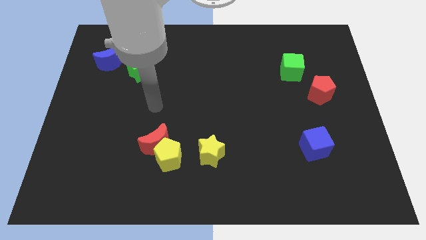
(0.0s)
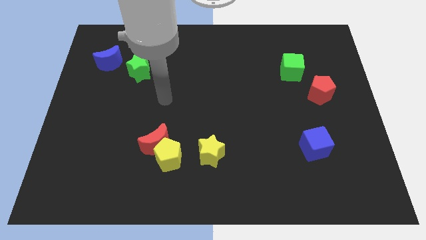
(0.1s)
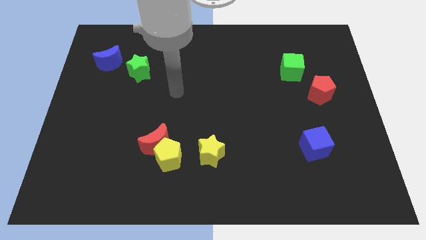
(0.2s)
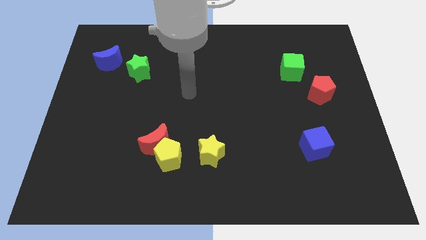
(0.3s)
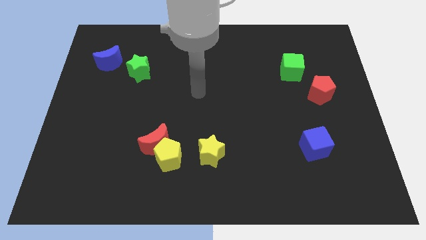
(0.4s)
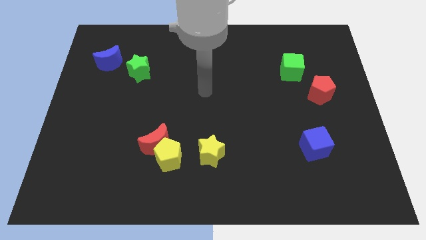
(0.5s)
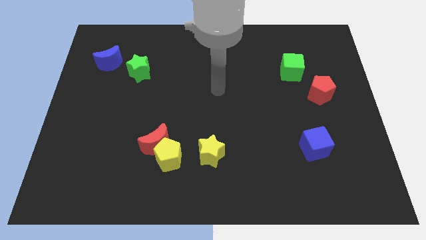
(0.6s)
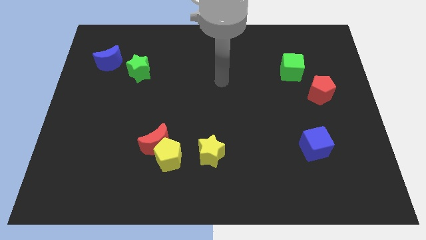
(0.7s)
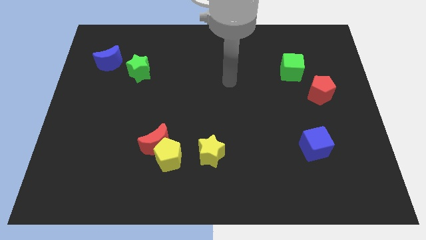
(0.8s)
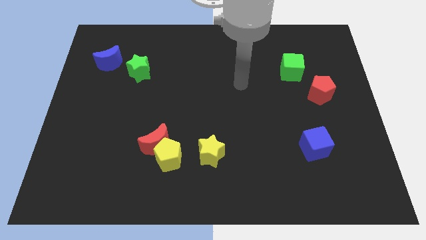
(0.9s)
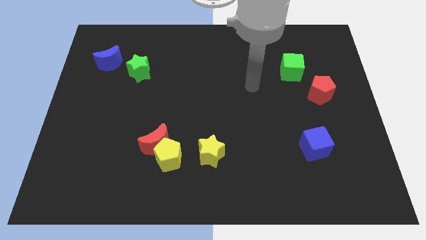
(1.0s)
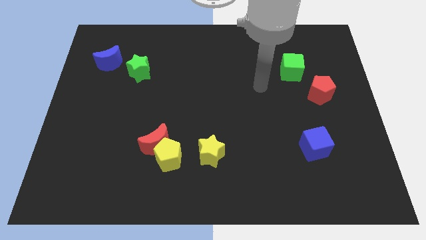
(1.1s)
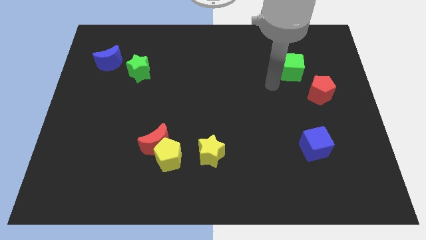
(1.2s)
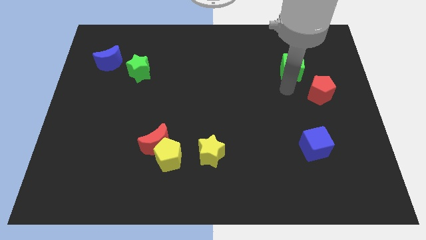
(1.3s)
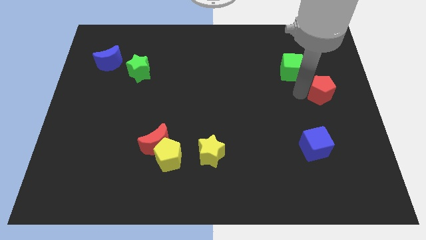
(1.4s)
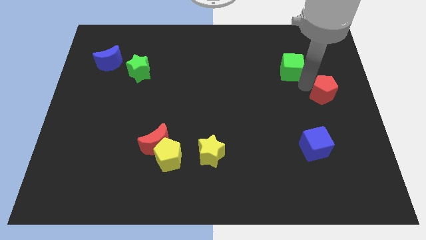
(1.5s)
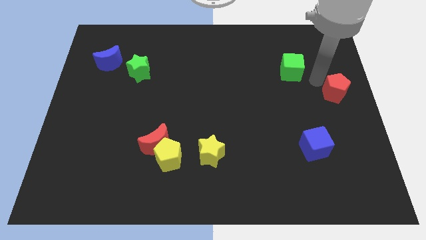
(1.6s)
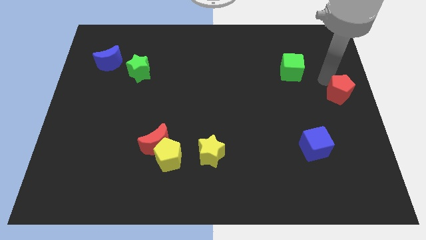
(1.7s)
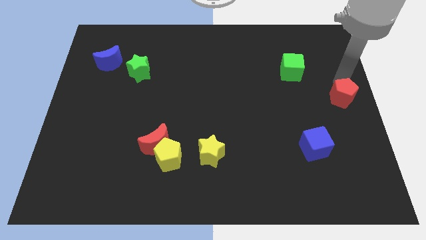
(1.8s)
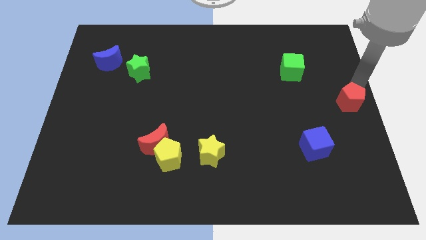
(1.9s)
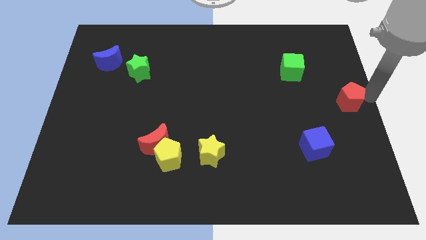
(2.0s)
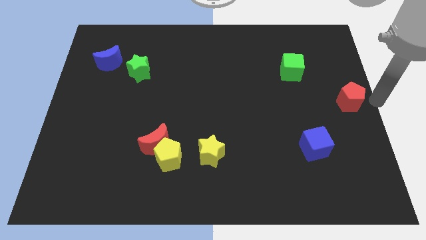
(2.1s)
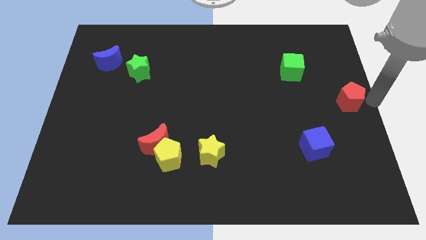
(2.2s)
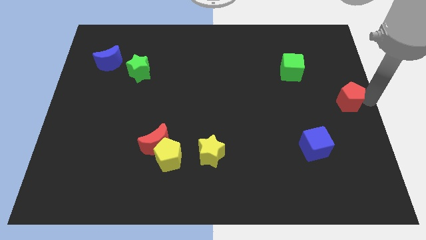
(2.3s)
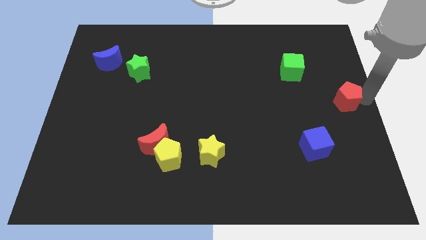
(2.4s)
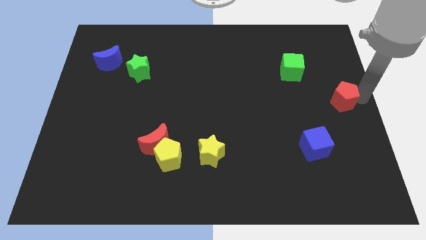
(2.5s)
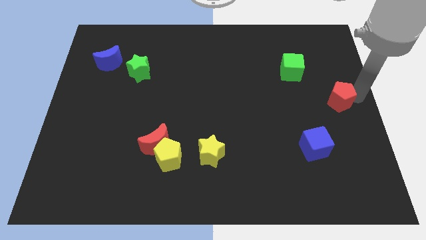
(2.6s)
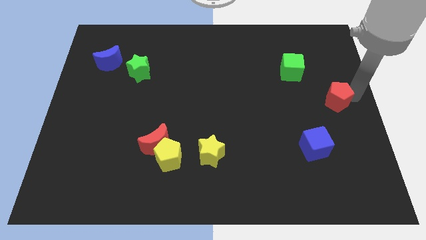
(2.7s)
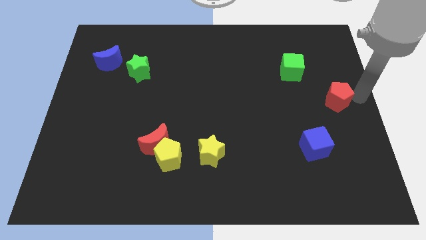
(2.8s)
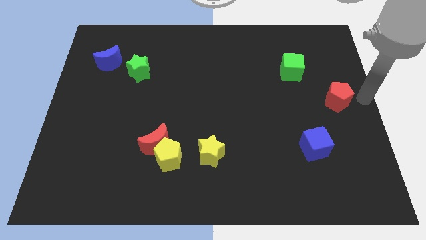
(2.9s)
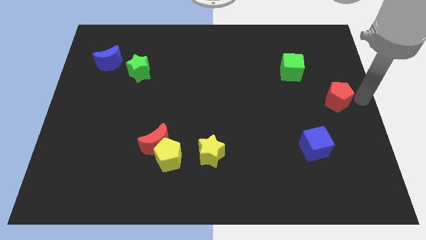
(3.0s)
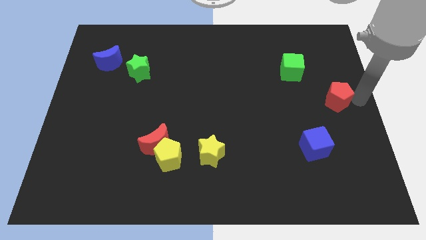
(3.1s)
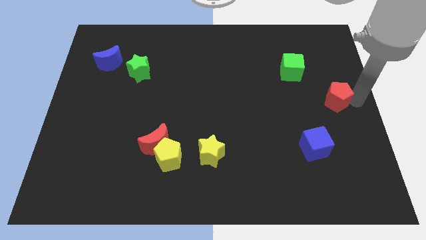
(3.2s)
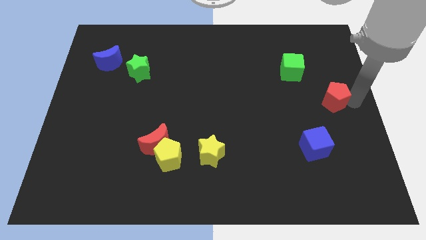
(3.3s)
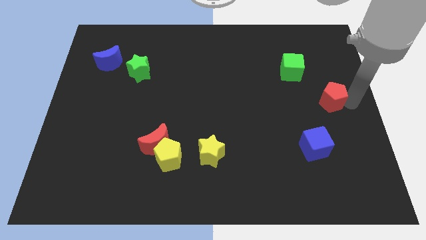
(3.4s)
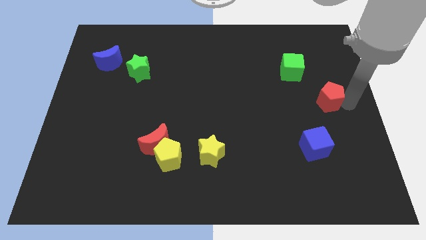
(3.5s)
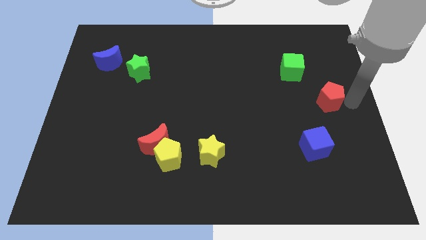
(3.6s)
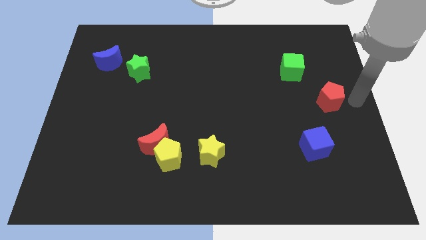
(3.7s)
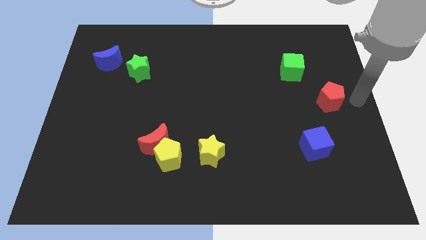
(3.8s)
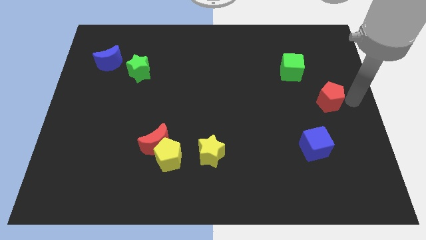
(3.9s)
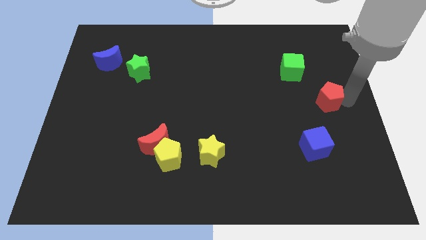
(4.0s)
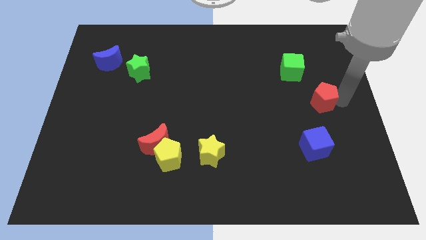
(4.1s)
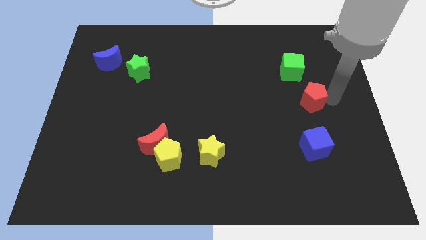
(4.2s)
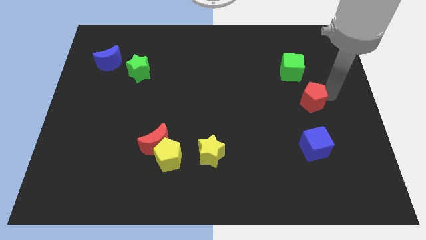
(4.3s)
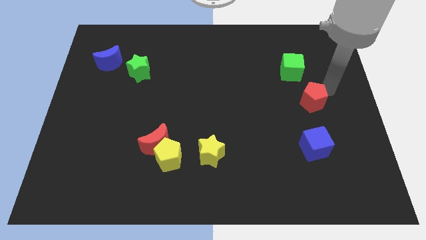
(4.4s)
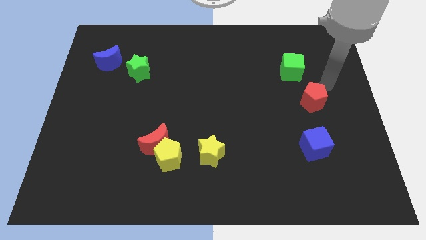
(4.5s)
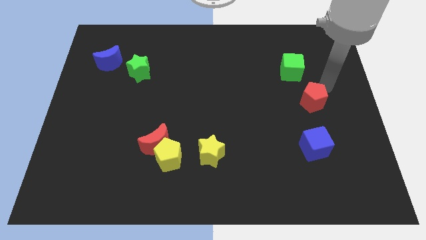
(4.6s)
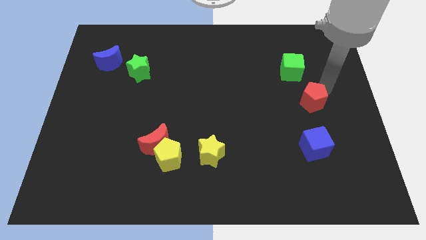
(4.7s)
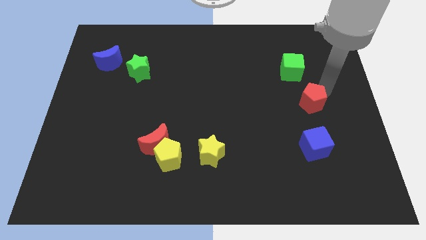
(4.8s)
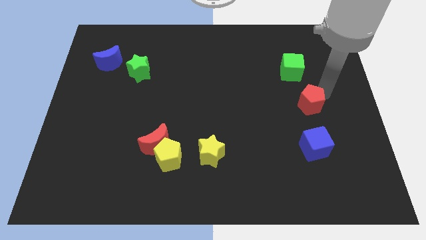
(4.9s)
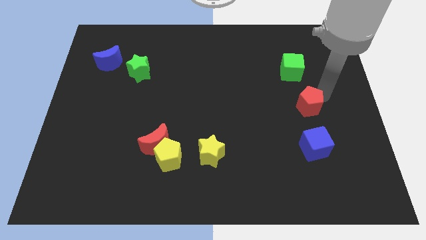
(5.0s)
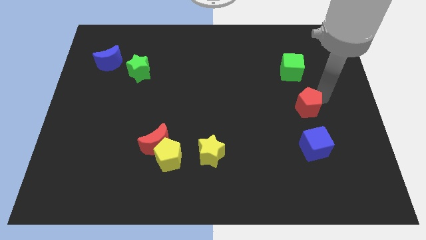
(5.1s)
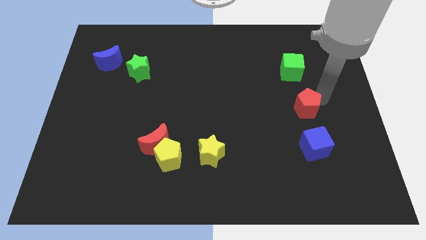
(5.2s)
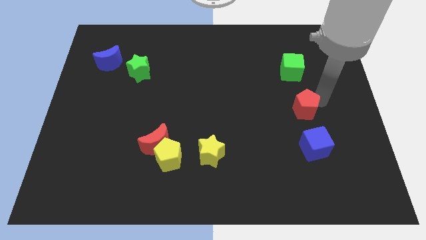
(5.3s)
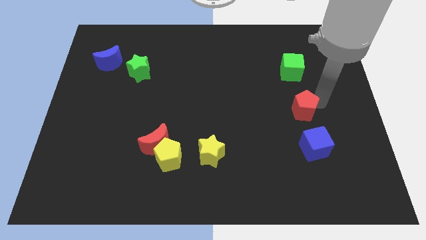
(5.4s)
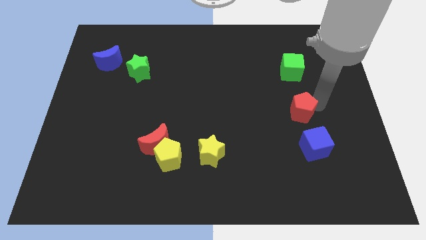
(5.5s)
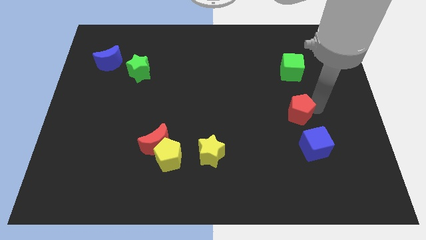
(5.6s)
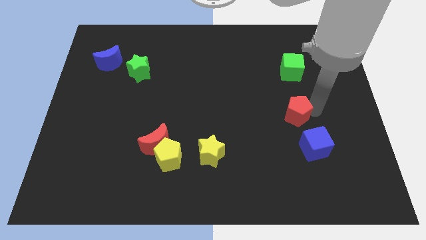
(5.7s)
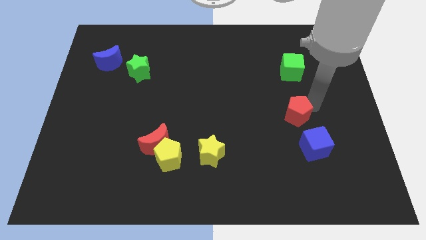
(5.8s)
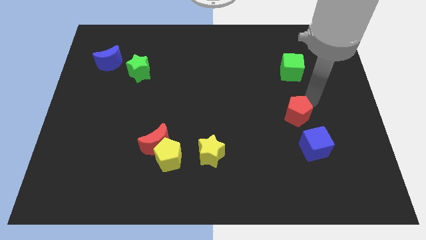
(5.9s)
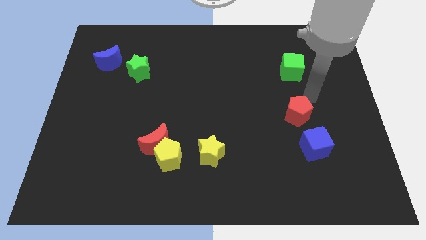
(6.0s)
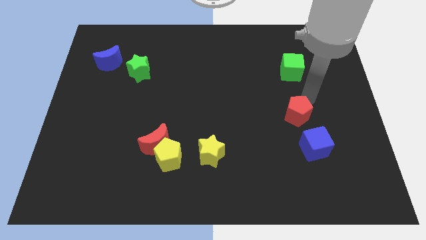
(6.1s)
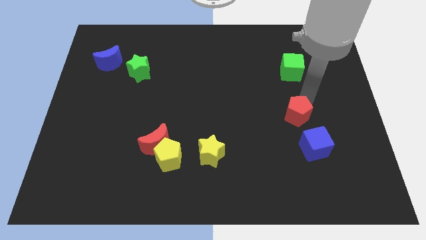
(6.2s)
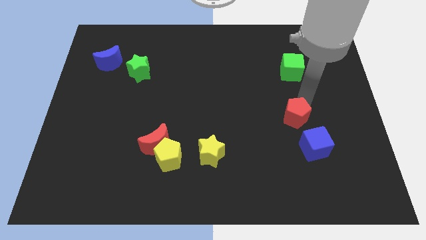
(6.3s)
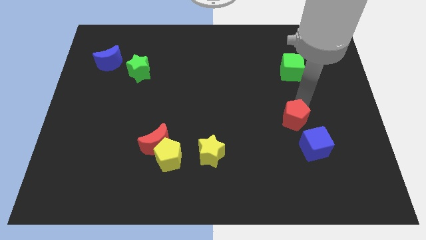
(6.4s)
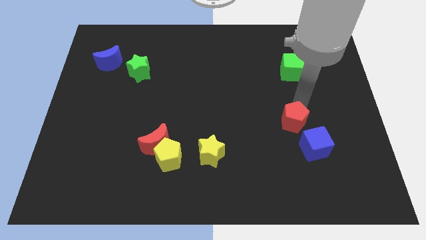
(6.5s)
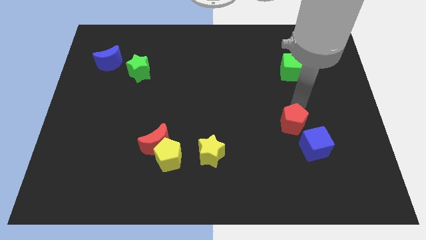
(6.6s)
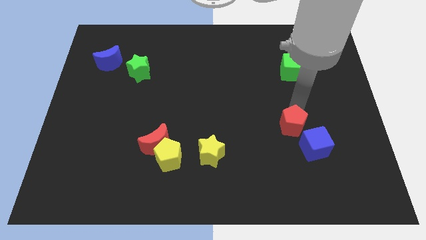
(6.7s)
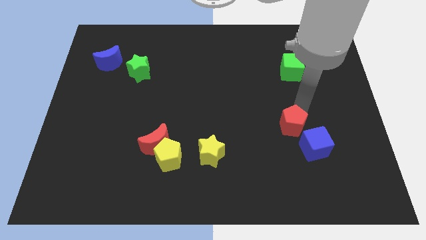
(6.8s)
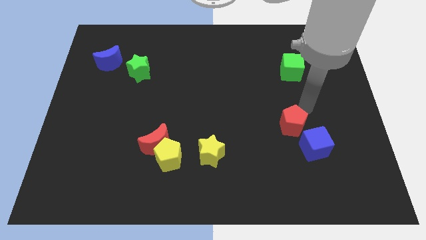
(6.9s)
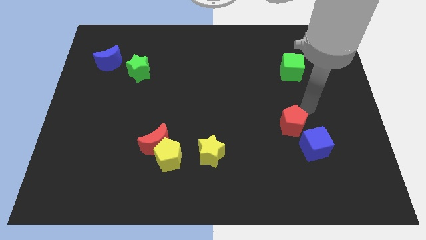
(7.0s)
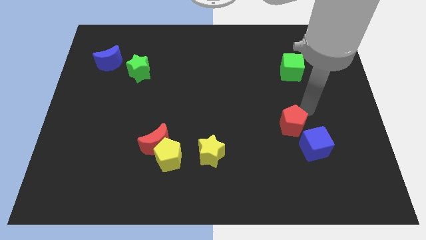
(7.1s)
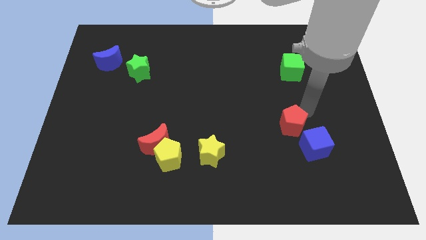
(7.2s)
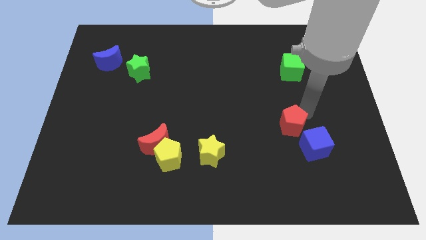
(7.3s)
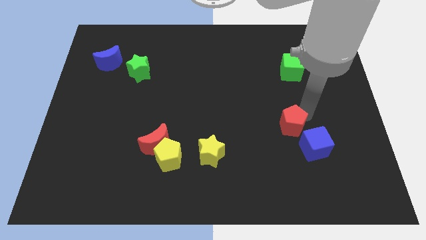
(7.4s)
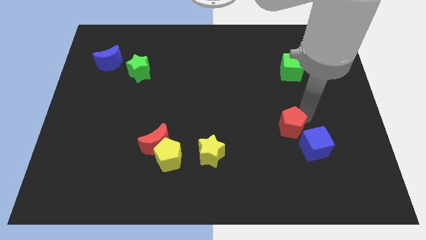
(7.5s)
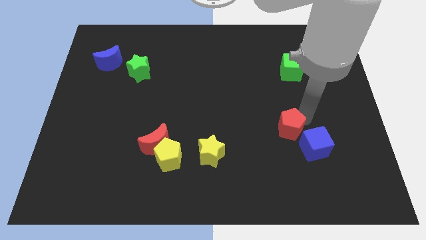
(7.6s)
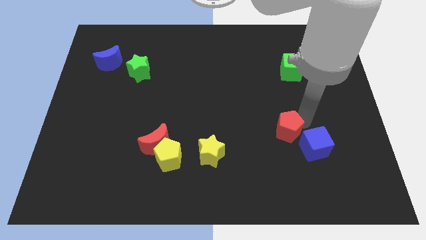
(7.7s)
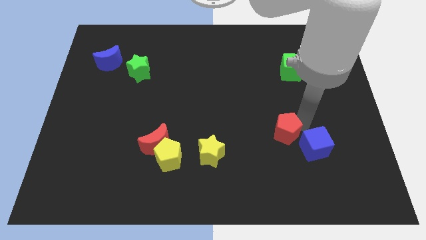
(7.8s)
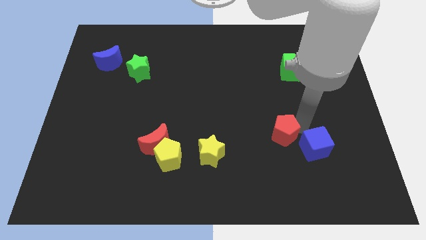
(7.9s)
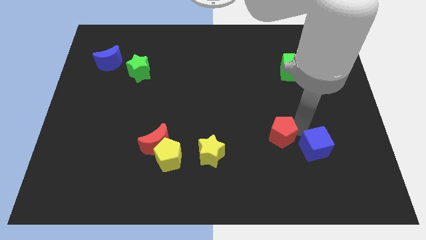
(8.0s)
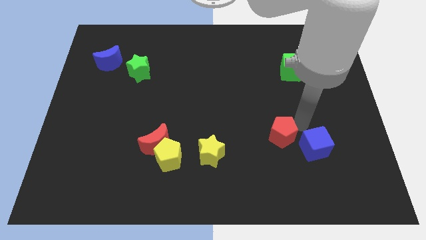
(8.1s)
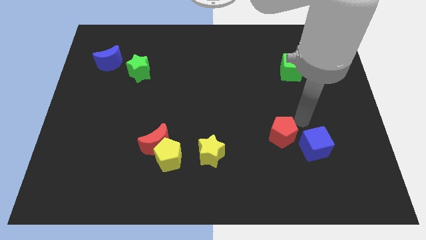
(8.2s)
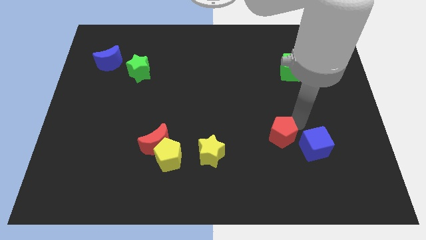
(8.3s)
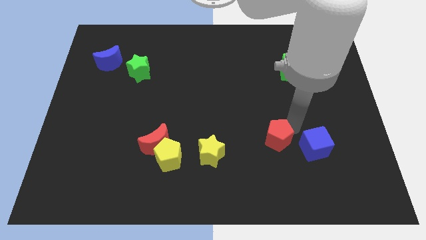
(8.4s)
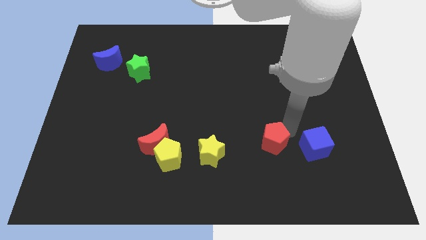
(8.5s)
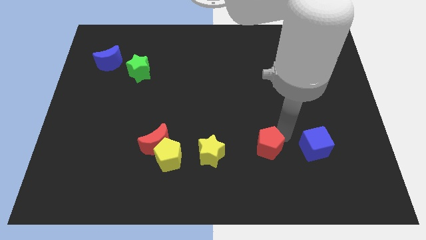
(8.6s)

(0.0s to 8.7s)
push the red pentagon down and to the left diagonally
